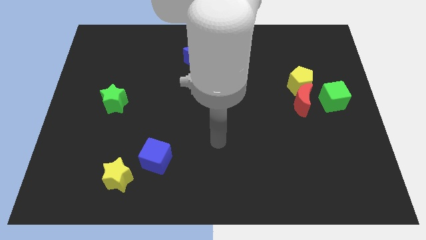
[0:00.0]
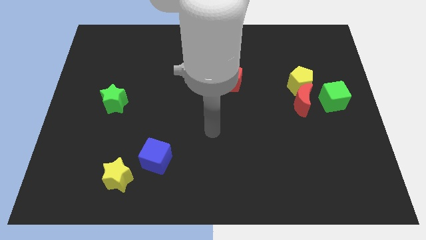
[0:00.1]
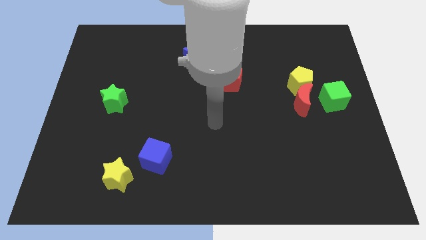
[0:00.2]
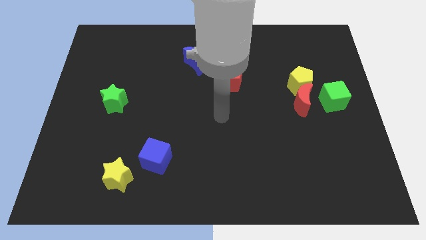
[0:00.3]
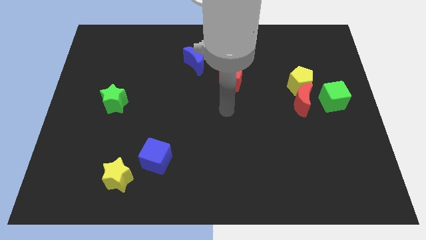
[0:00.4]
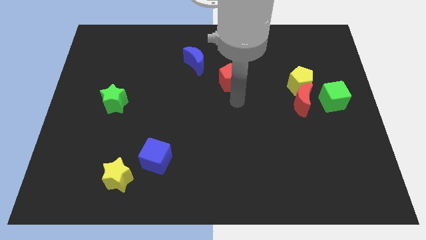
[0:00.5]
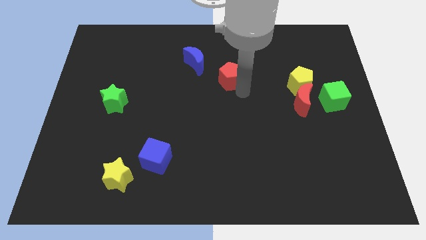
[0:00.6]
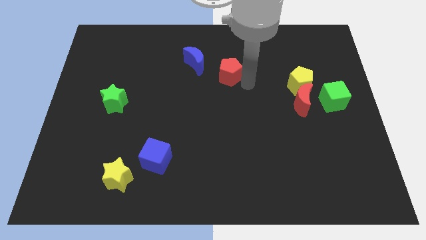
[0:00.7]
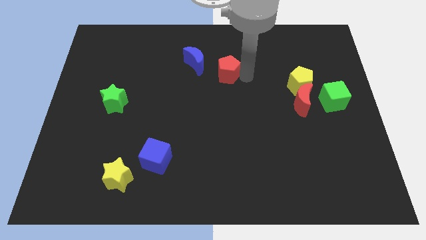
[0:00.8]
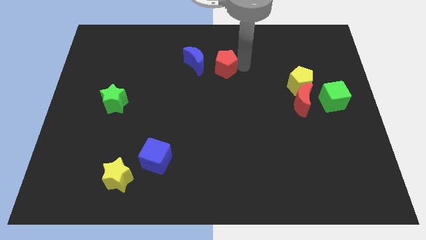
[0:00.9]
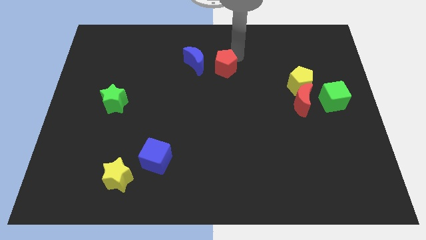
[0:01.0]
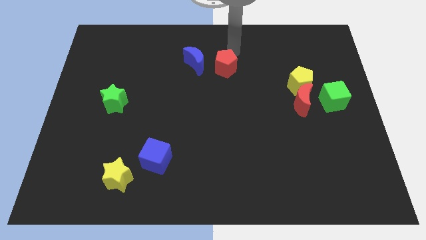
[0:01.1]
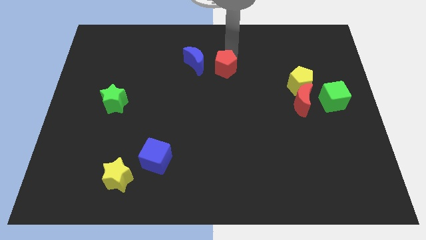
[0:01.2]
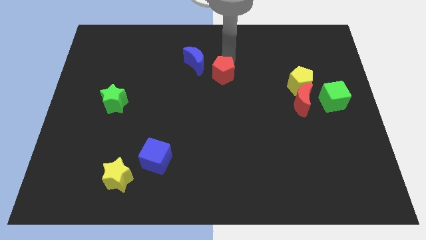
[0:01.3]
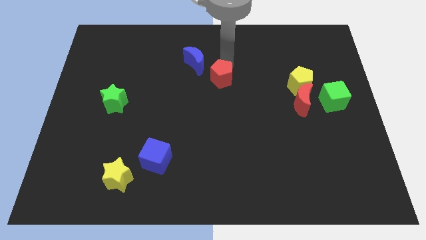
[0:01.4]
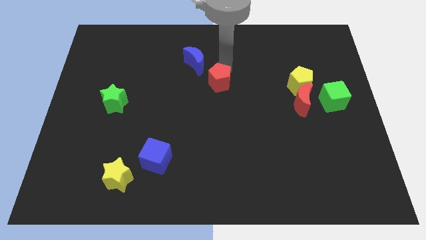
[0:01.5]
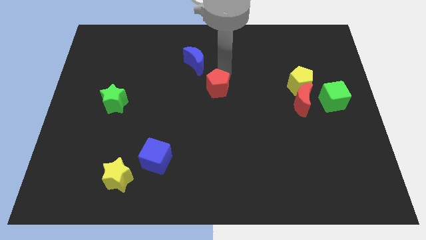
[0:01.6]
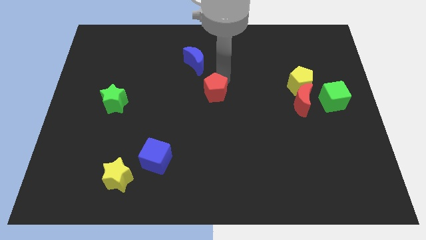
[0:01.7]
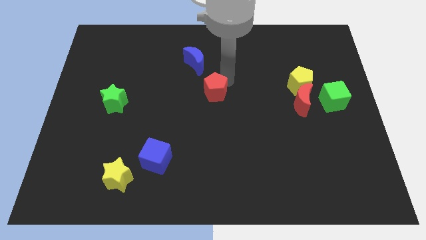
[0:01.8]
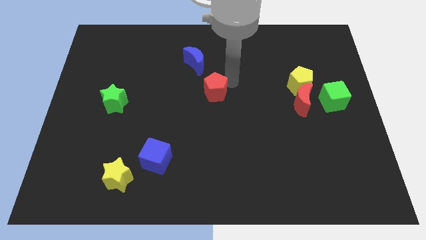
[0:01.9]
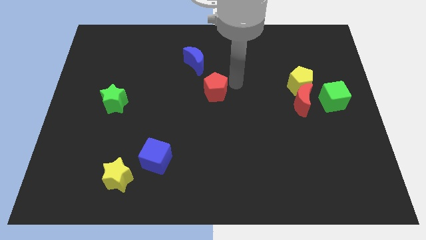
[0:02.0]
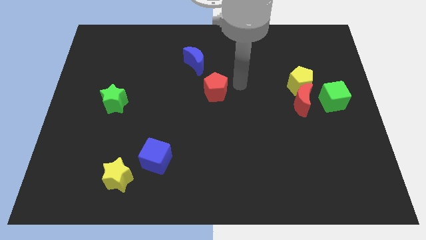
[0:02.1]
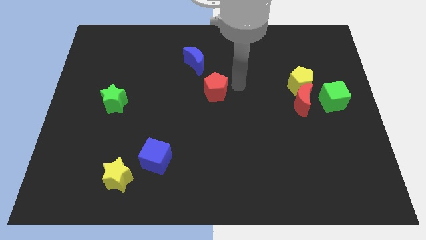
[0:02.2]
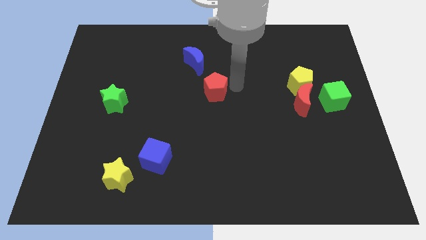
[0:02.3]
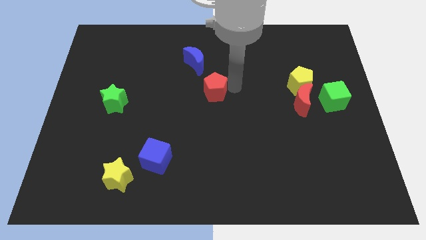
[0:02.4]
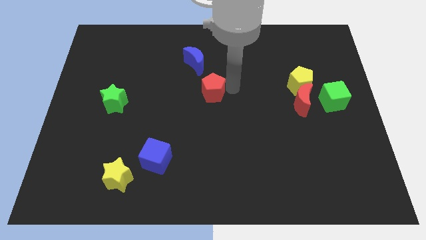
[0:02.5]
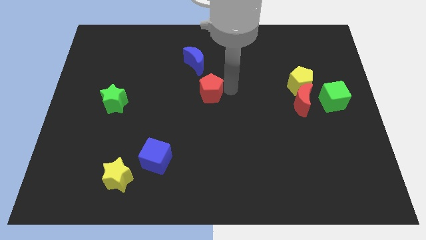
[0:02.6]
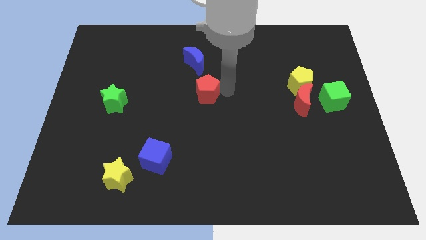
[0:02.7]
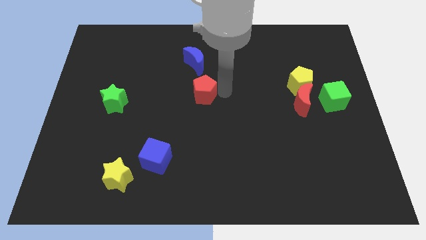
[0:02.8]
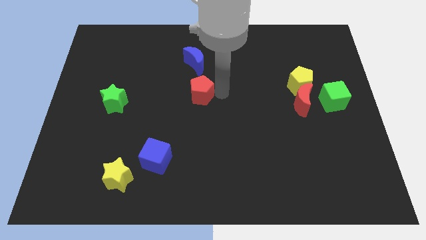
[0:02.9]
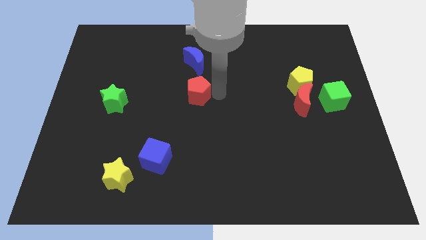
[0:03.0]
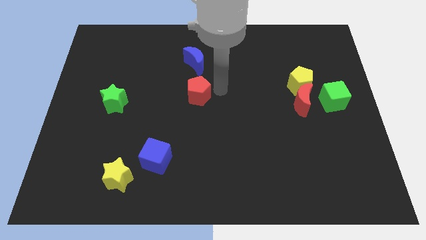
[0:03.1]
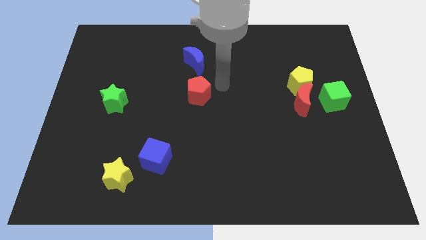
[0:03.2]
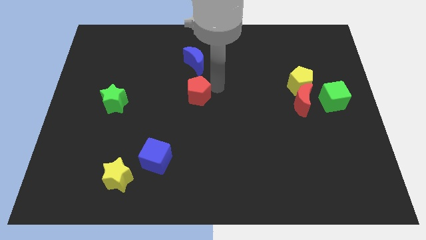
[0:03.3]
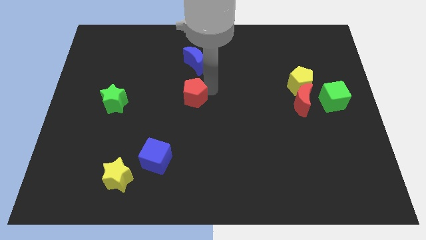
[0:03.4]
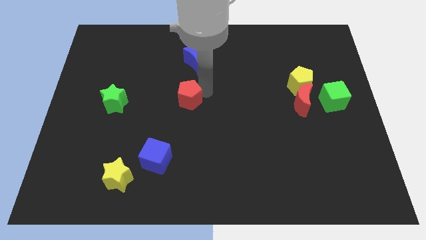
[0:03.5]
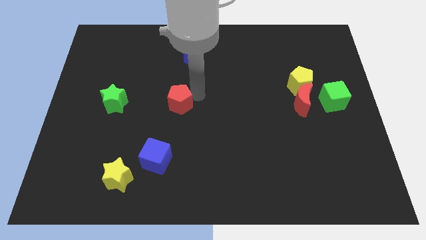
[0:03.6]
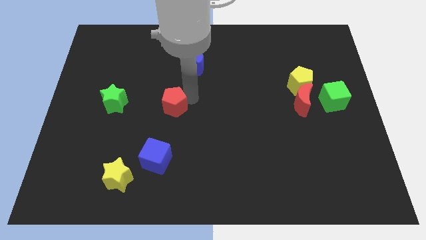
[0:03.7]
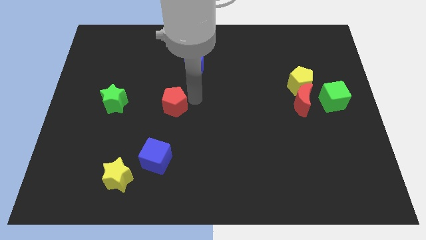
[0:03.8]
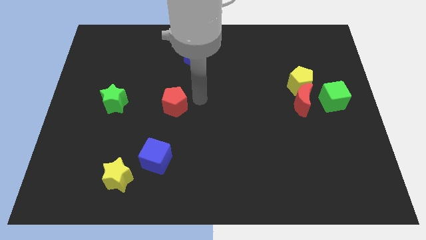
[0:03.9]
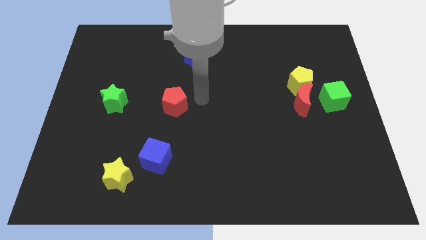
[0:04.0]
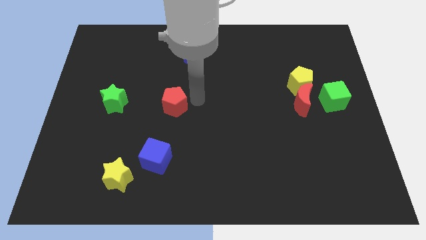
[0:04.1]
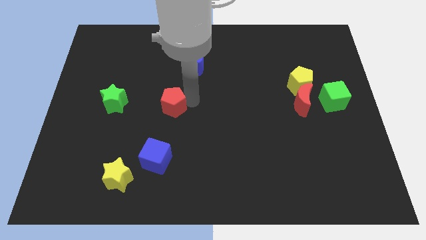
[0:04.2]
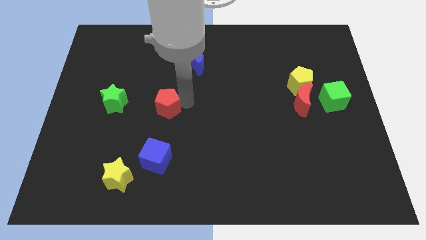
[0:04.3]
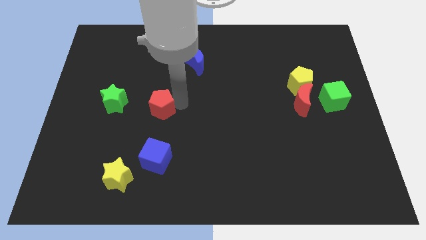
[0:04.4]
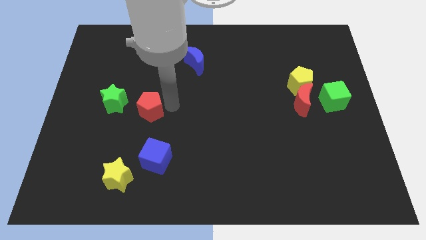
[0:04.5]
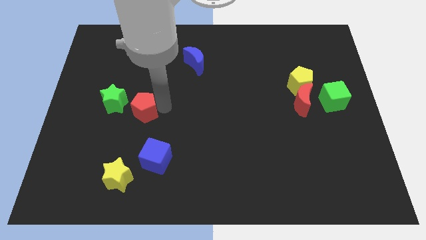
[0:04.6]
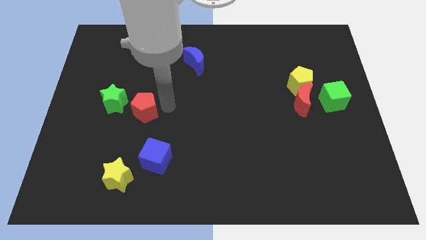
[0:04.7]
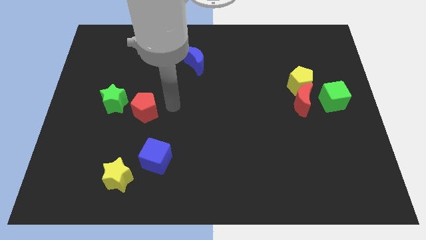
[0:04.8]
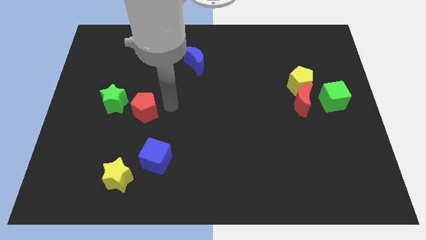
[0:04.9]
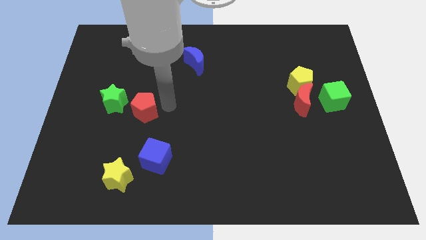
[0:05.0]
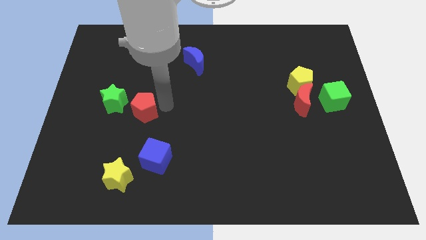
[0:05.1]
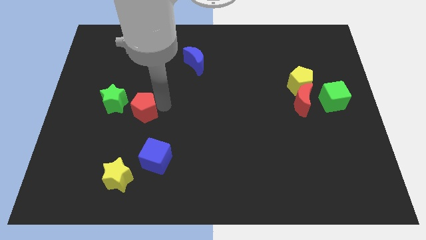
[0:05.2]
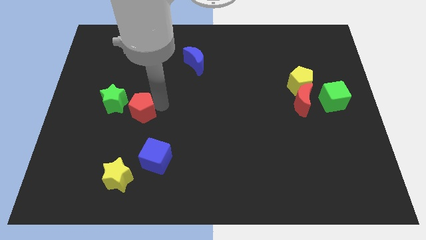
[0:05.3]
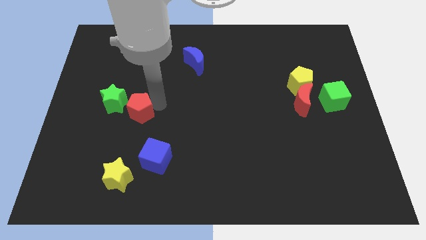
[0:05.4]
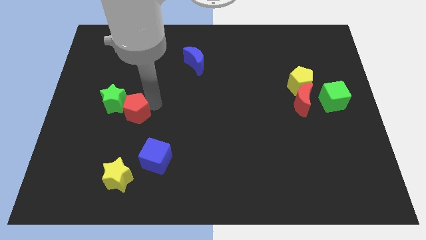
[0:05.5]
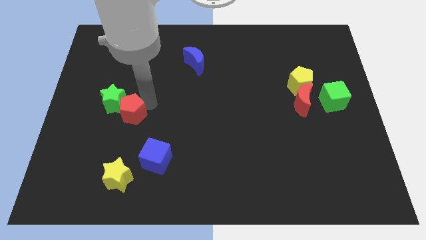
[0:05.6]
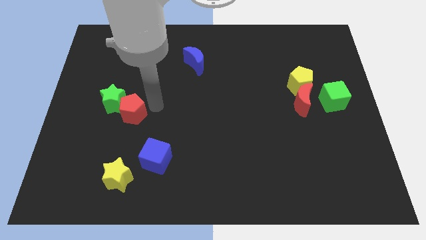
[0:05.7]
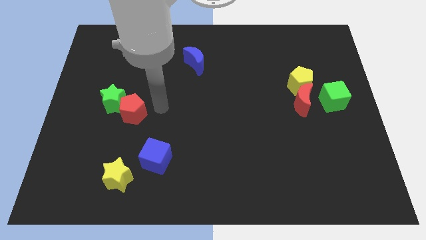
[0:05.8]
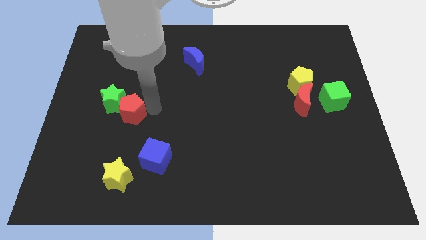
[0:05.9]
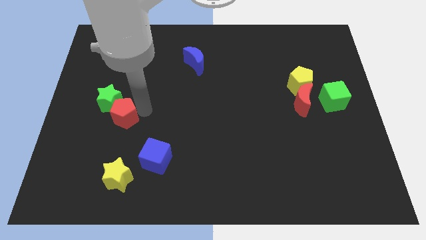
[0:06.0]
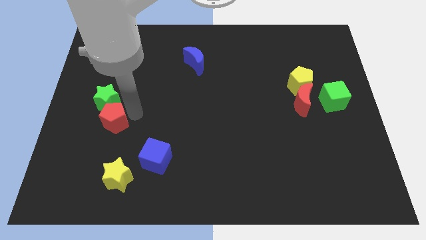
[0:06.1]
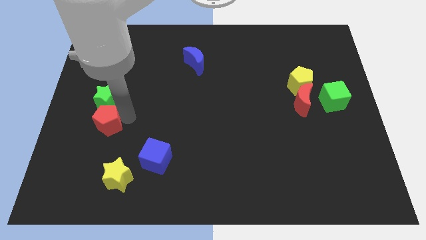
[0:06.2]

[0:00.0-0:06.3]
put the red pentagon to the bottom left side of the green star

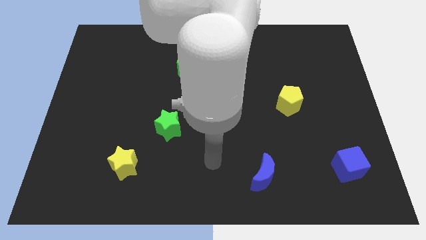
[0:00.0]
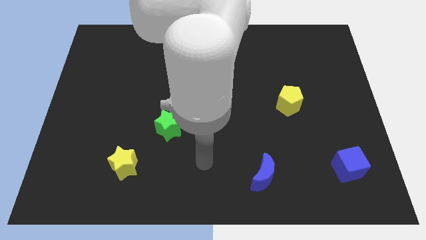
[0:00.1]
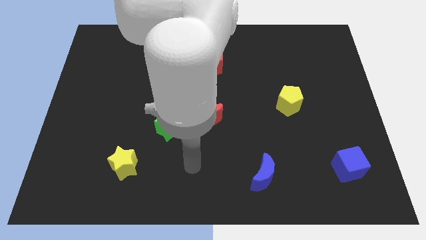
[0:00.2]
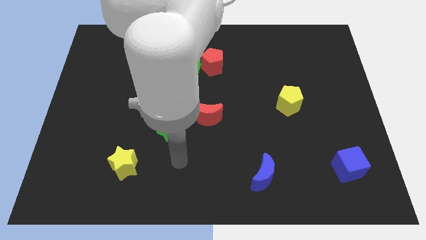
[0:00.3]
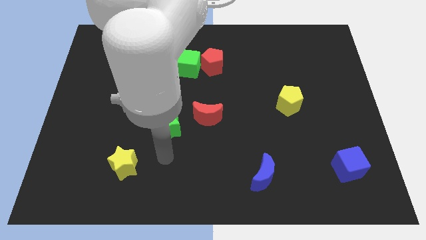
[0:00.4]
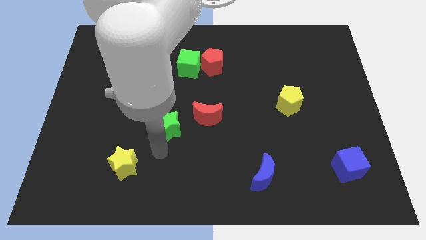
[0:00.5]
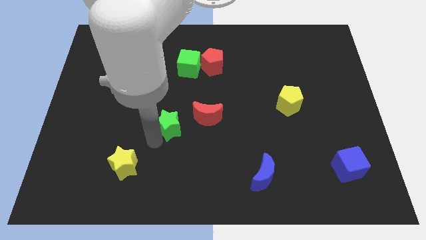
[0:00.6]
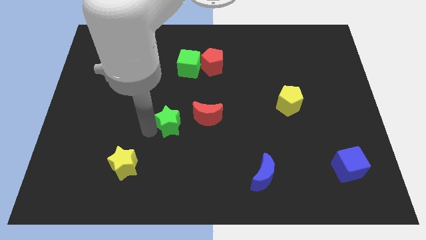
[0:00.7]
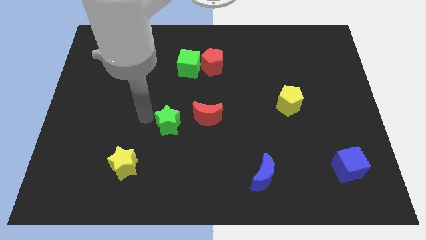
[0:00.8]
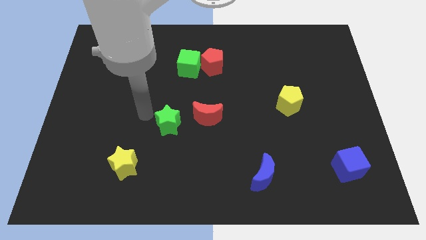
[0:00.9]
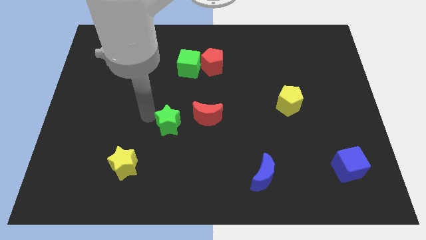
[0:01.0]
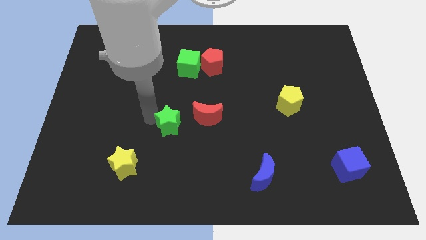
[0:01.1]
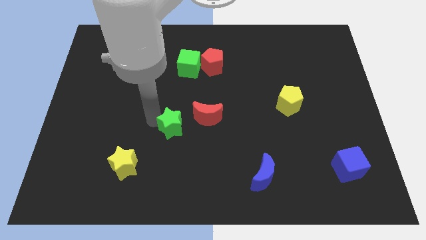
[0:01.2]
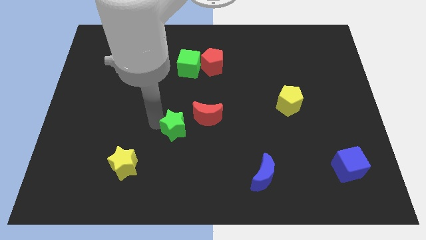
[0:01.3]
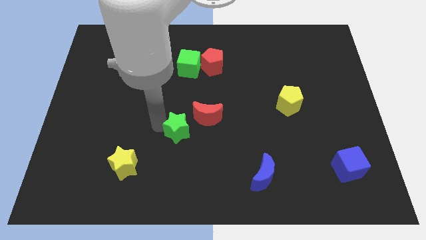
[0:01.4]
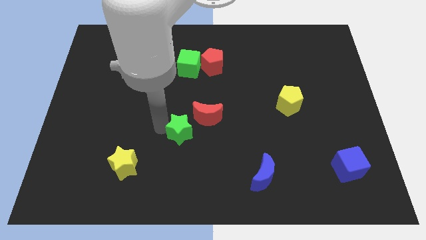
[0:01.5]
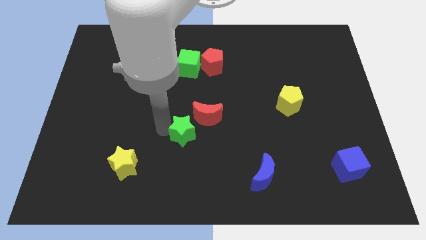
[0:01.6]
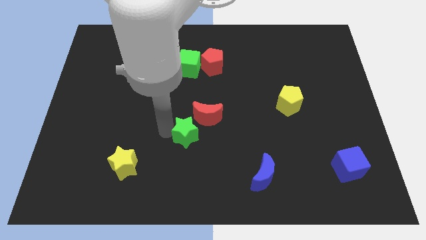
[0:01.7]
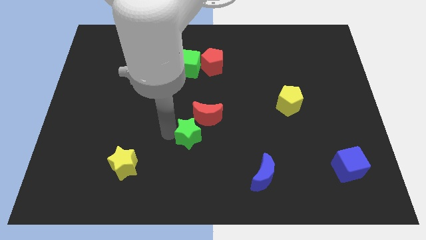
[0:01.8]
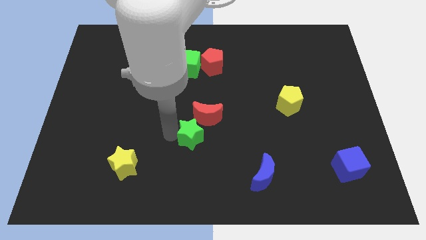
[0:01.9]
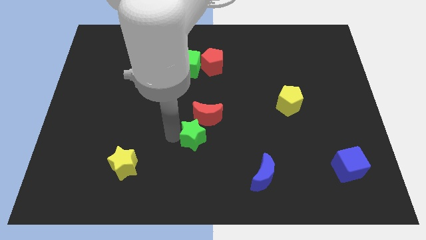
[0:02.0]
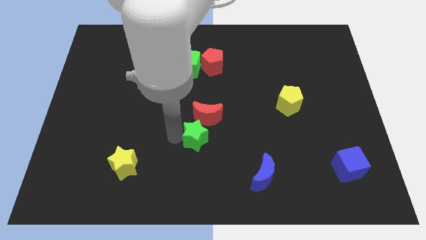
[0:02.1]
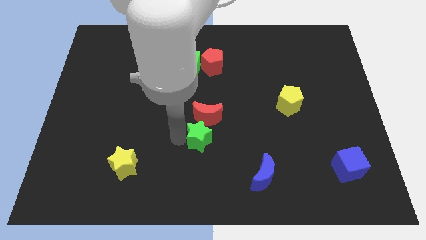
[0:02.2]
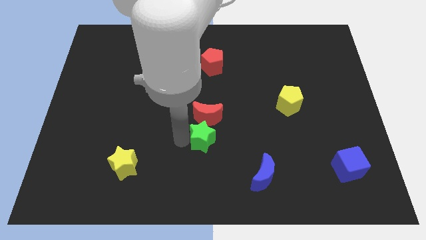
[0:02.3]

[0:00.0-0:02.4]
move the green star to the bottom right side of the red moon
